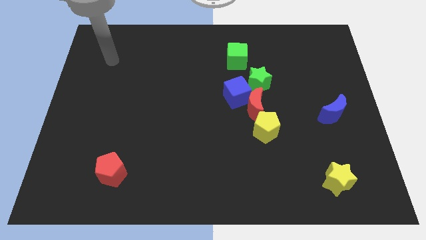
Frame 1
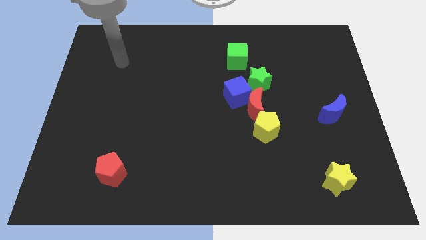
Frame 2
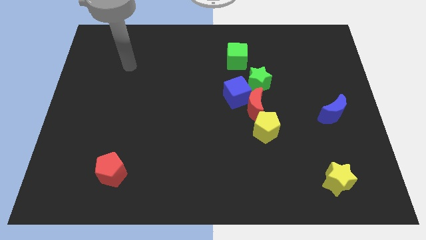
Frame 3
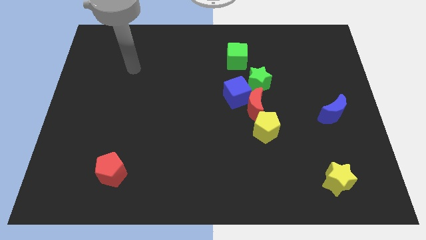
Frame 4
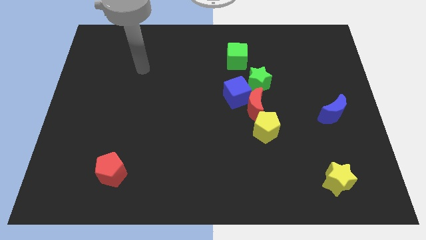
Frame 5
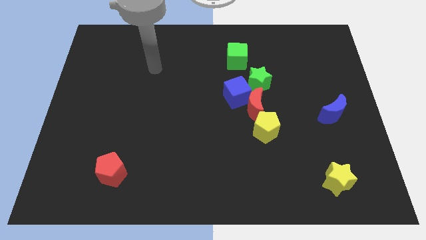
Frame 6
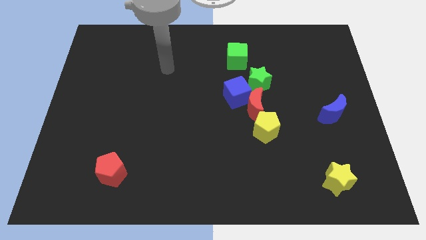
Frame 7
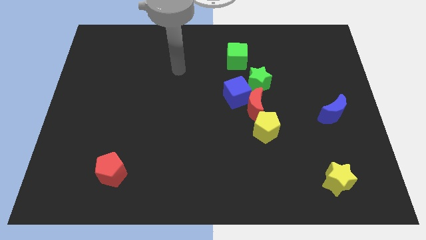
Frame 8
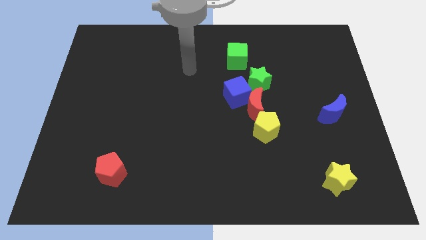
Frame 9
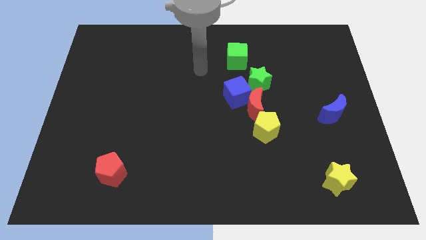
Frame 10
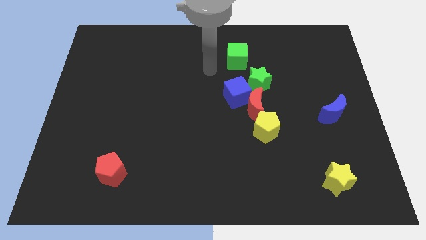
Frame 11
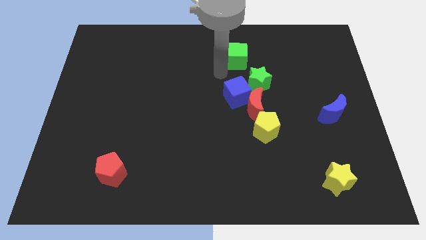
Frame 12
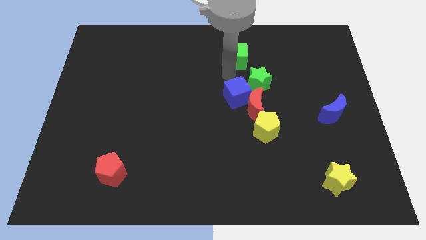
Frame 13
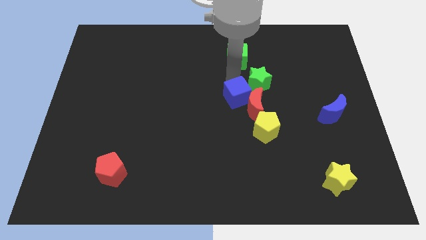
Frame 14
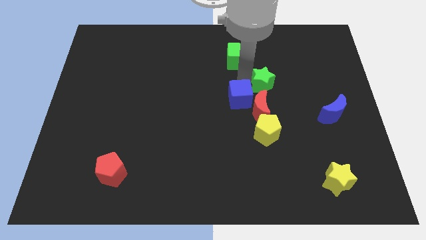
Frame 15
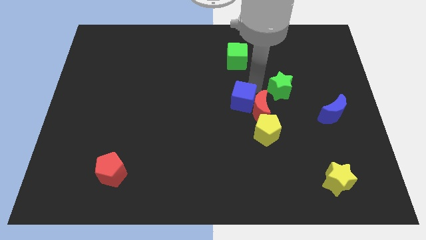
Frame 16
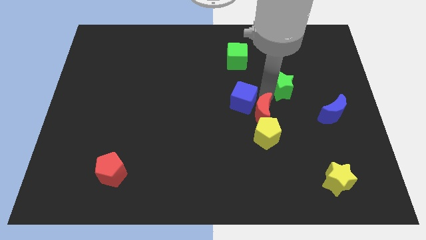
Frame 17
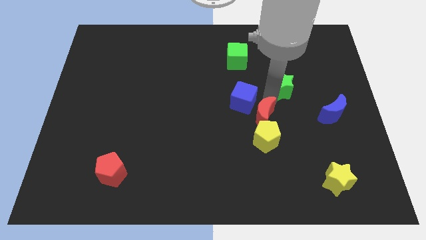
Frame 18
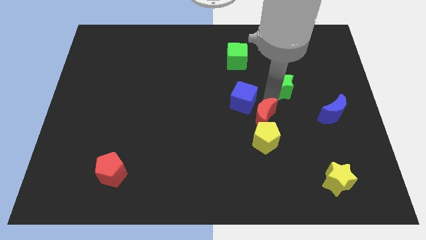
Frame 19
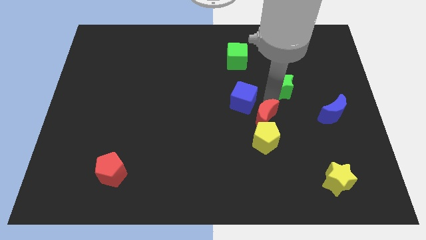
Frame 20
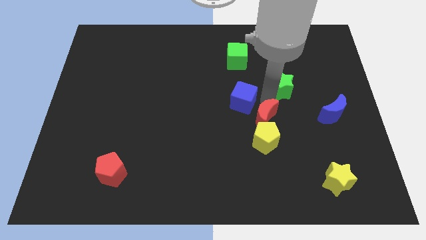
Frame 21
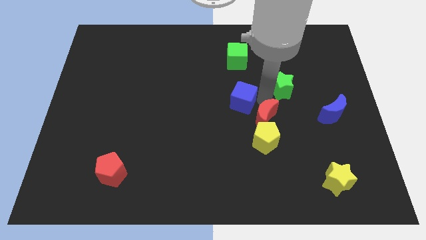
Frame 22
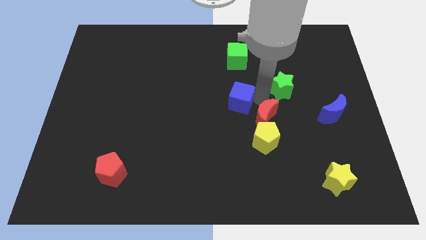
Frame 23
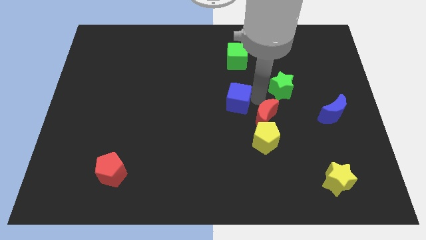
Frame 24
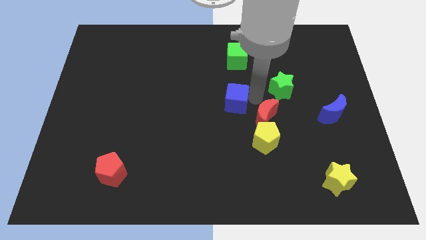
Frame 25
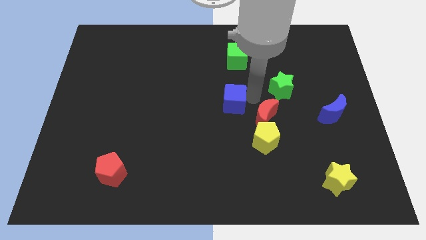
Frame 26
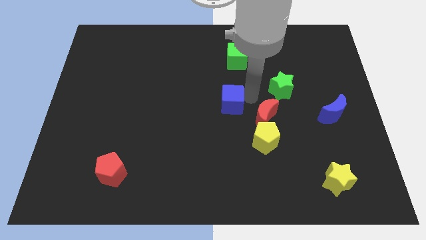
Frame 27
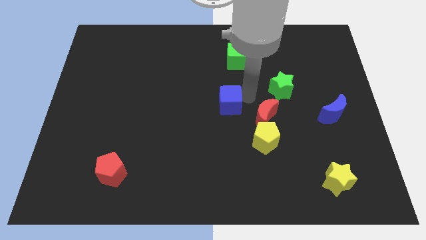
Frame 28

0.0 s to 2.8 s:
separate the blue cube from the red moon and green star

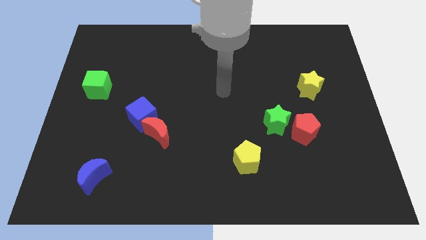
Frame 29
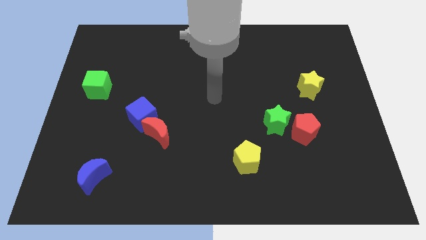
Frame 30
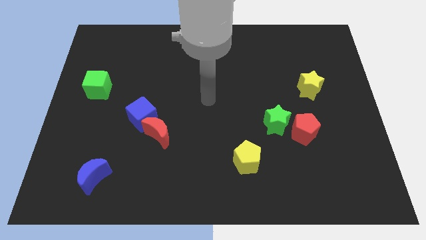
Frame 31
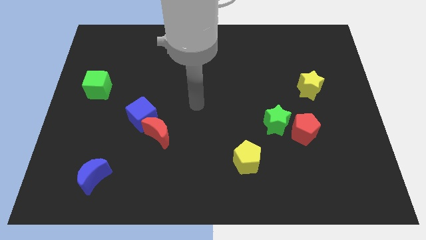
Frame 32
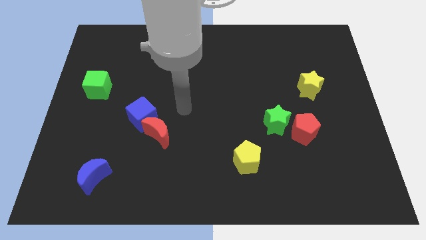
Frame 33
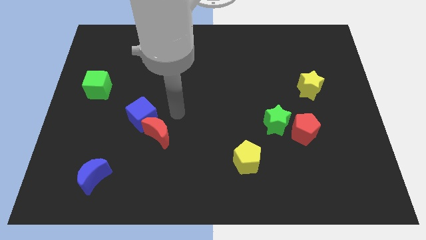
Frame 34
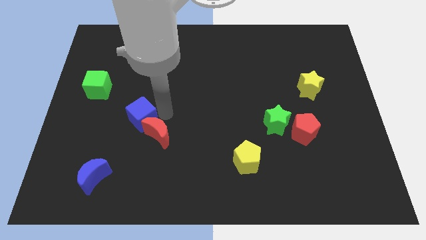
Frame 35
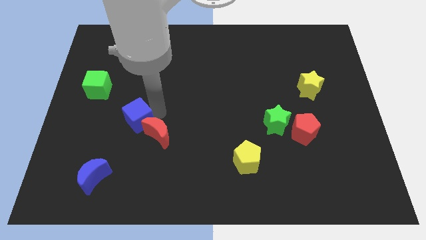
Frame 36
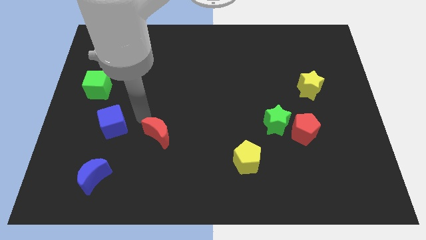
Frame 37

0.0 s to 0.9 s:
separate the red moon from the blue cube

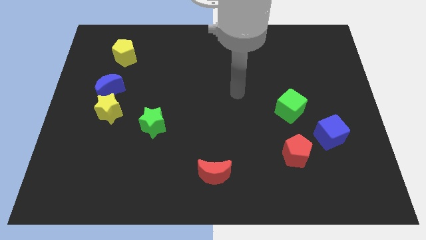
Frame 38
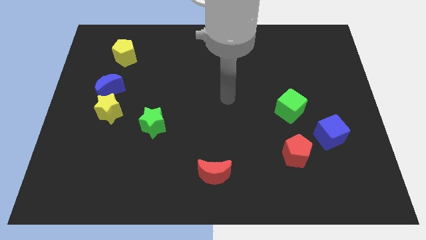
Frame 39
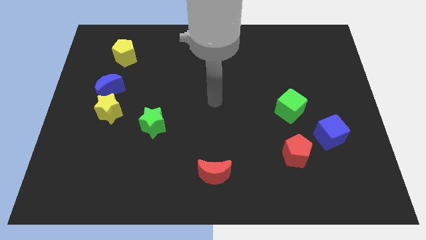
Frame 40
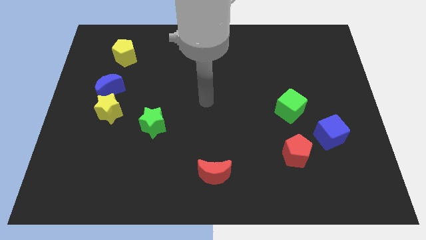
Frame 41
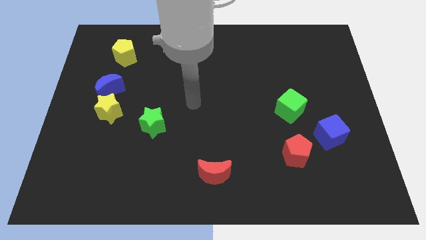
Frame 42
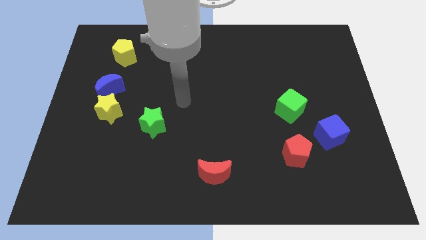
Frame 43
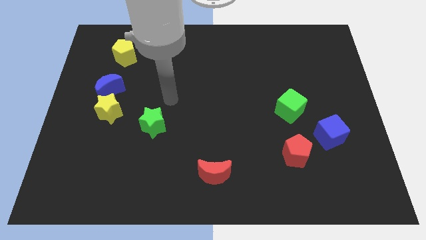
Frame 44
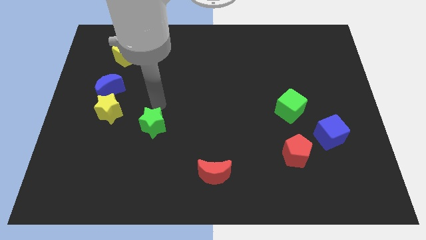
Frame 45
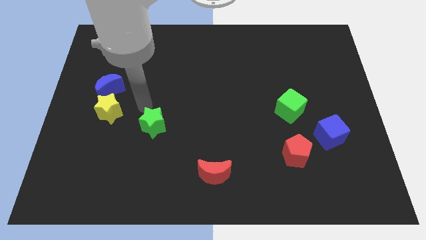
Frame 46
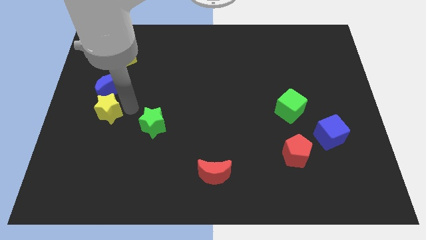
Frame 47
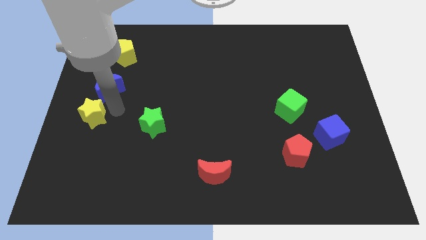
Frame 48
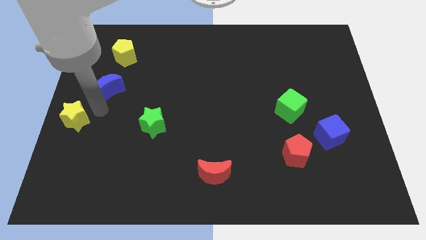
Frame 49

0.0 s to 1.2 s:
separate the blue moon from the yellow star

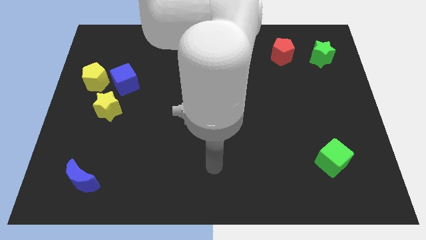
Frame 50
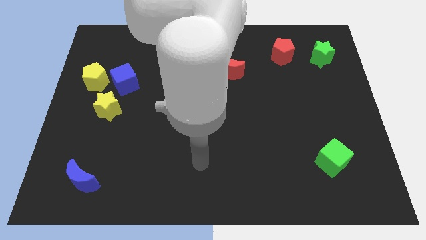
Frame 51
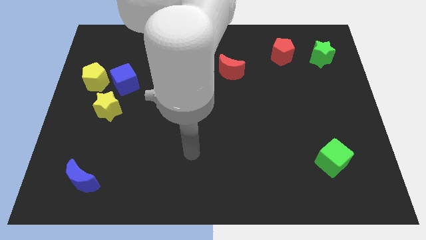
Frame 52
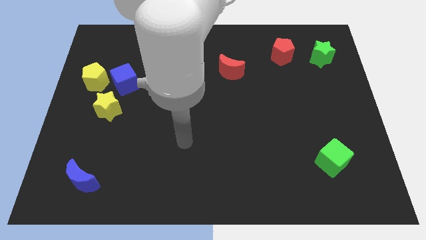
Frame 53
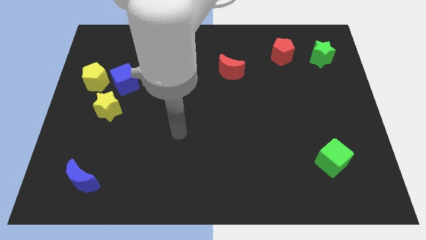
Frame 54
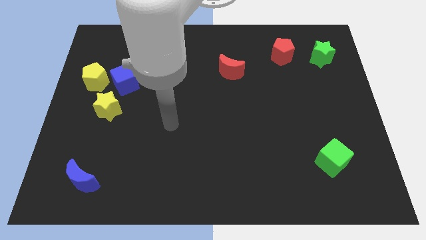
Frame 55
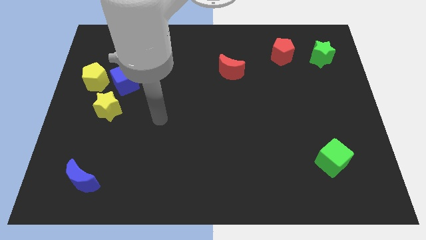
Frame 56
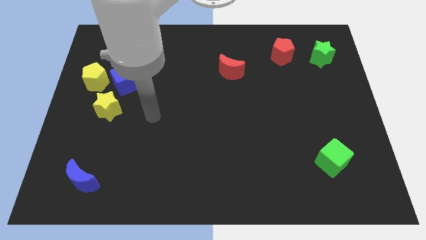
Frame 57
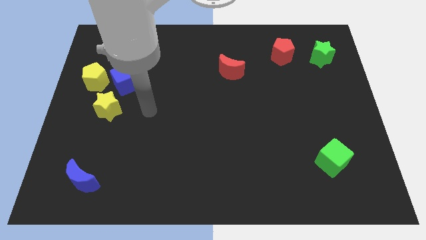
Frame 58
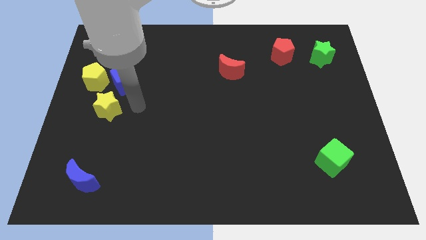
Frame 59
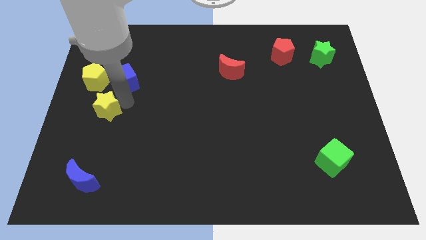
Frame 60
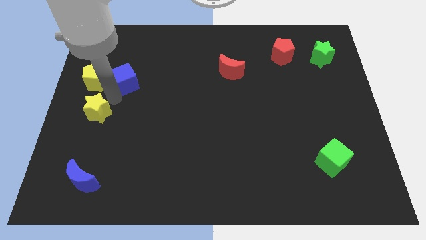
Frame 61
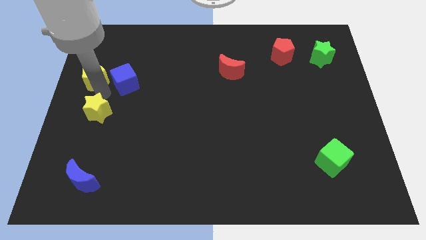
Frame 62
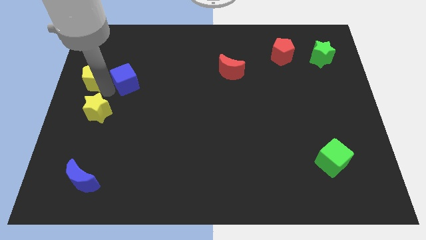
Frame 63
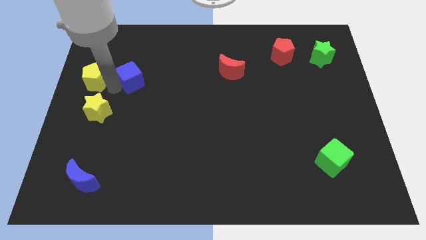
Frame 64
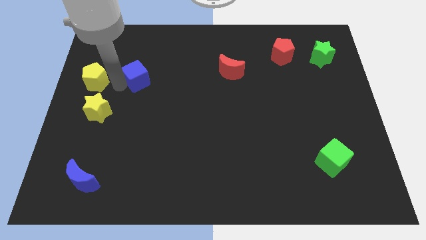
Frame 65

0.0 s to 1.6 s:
move the blue cube away from the yellow pentagon and yellow star

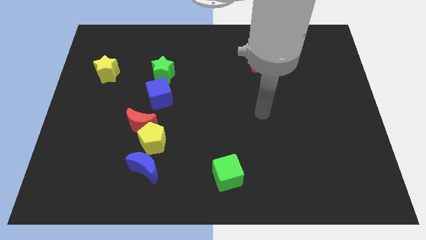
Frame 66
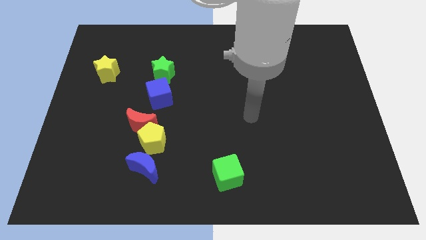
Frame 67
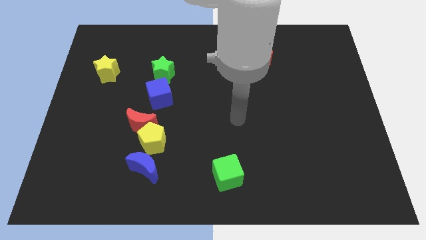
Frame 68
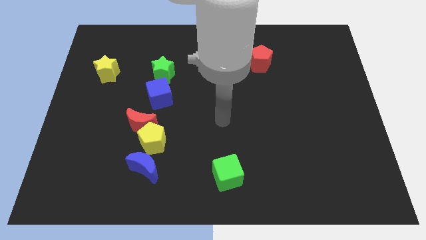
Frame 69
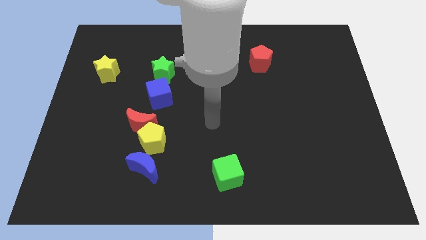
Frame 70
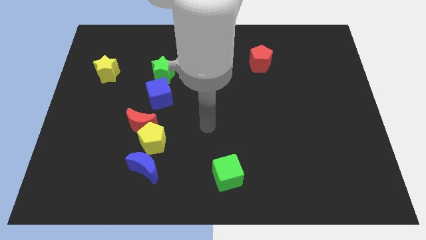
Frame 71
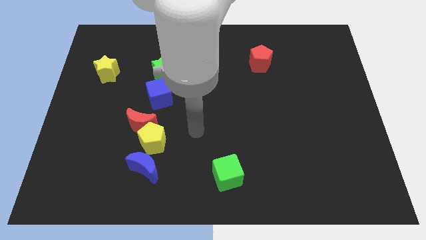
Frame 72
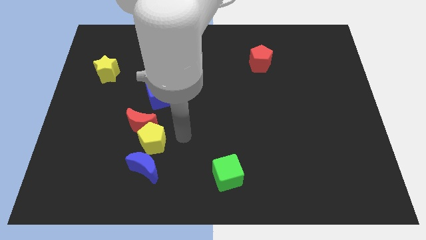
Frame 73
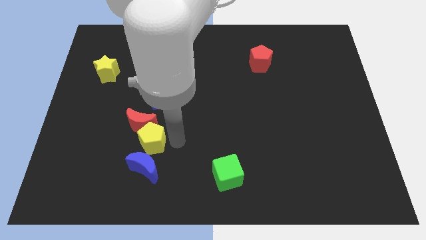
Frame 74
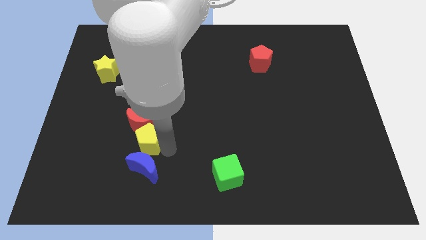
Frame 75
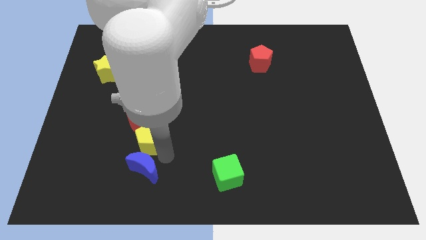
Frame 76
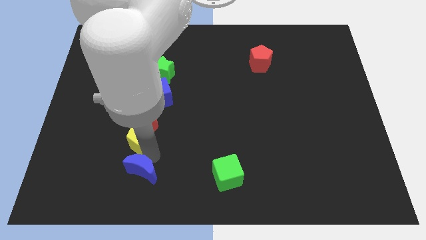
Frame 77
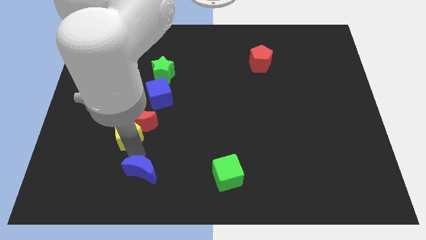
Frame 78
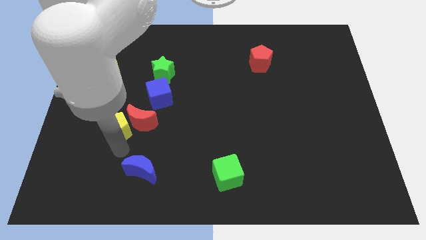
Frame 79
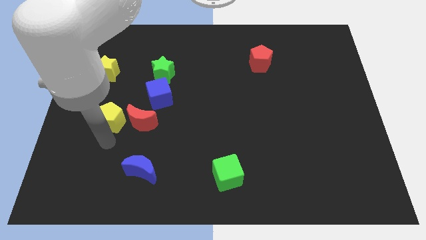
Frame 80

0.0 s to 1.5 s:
separate the yellow pentagon from the red moon and blue moon

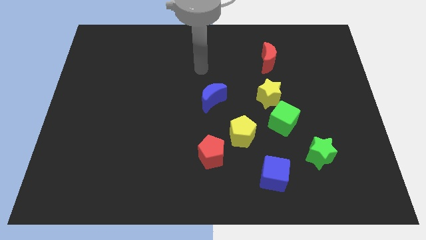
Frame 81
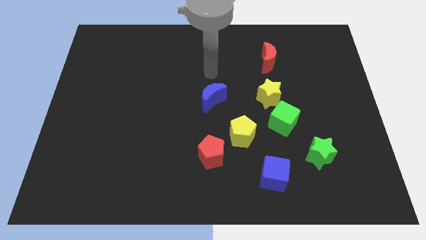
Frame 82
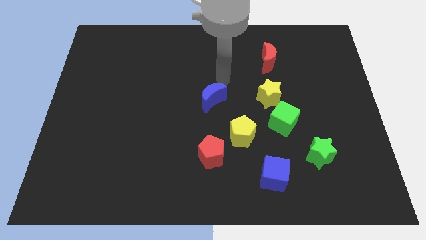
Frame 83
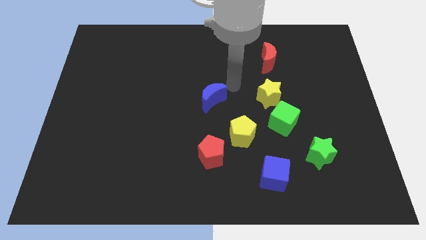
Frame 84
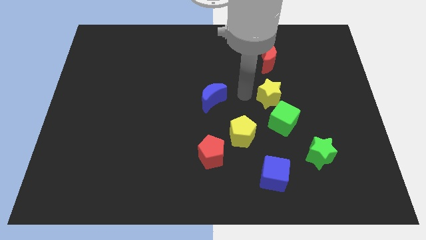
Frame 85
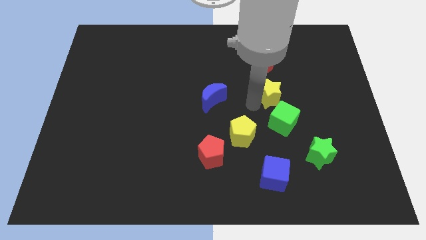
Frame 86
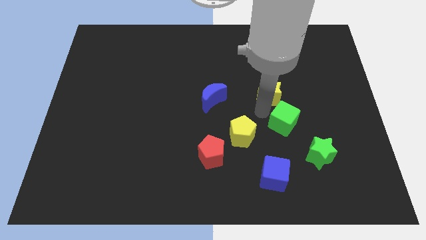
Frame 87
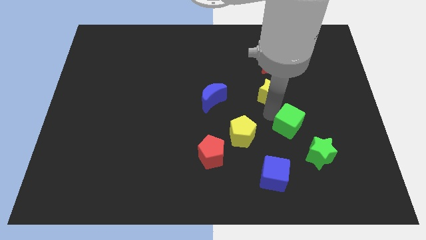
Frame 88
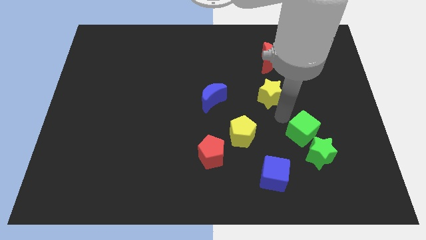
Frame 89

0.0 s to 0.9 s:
separate the yellow star from the green cube

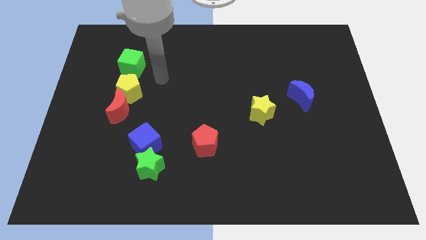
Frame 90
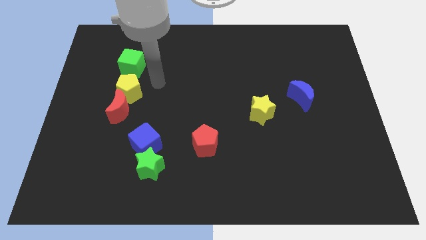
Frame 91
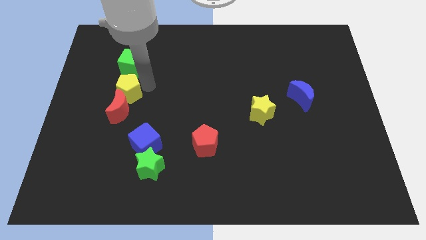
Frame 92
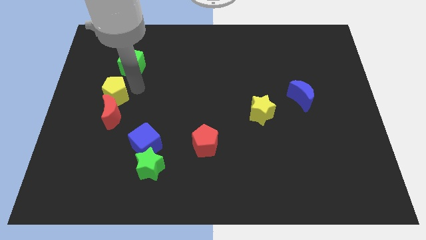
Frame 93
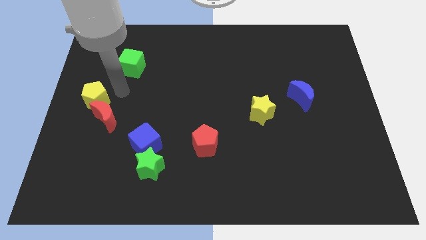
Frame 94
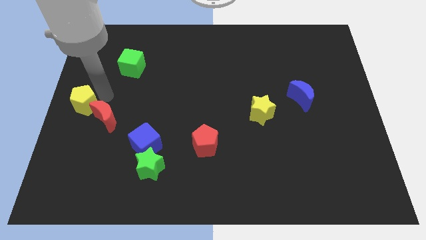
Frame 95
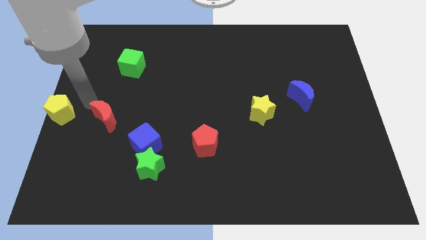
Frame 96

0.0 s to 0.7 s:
move the red moon away from the yellow pentagon
